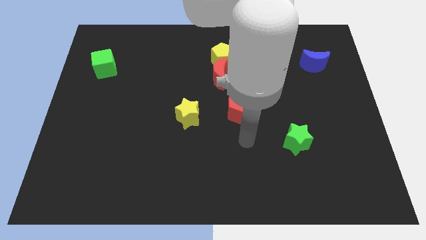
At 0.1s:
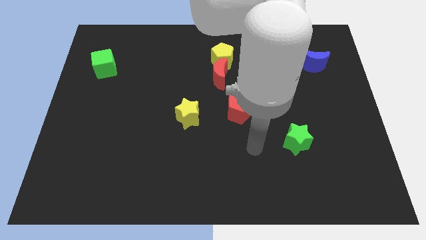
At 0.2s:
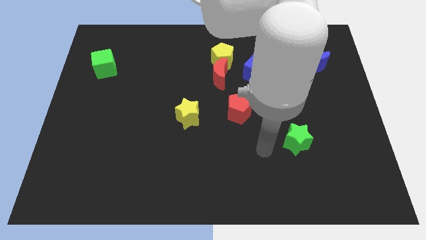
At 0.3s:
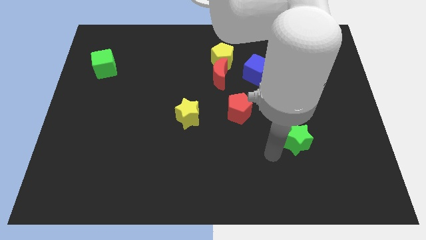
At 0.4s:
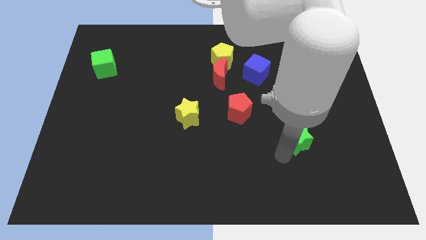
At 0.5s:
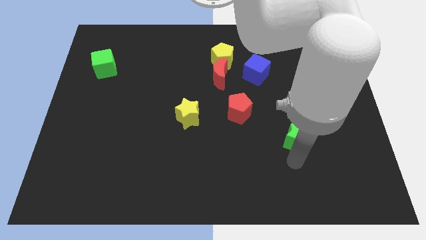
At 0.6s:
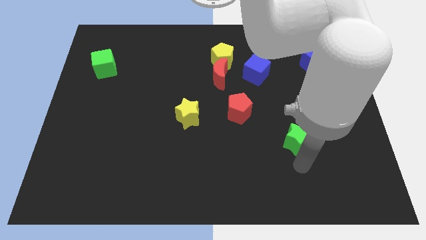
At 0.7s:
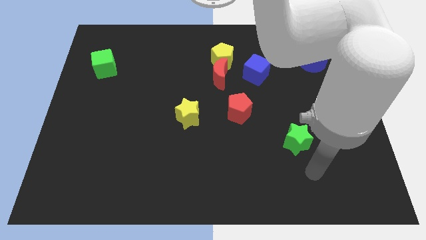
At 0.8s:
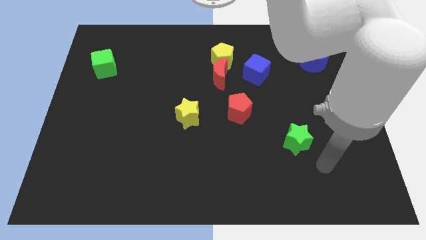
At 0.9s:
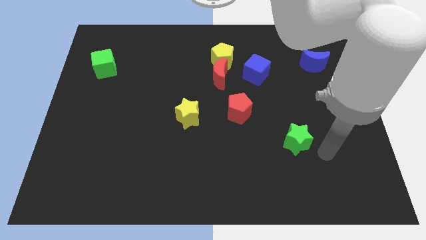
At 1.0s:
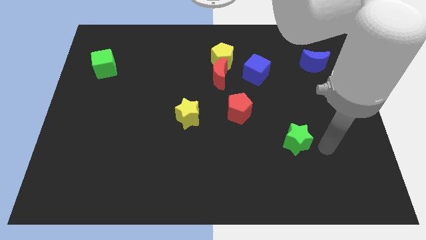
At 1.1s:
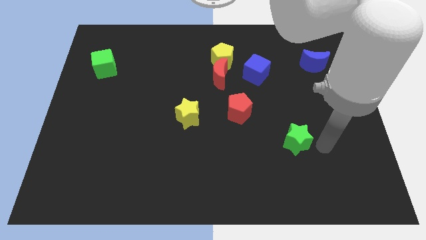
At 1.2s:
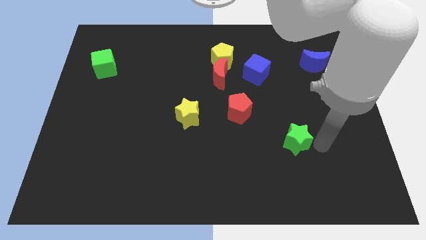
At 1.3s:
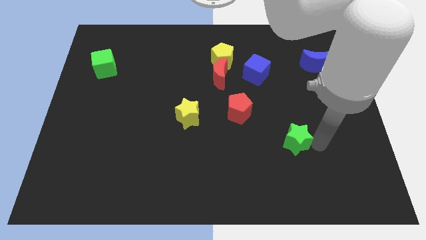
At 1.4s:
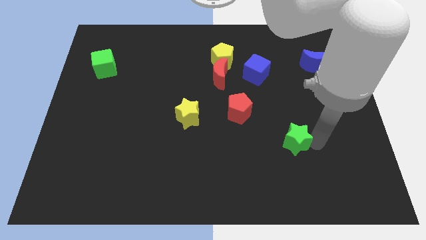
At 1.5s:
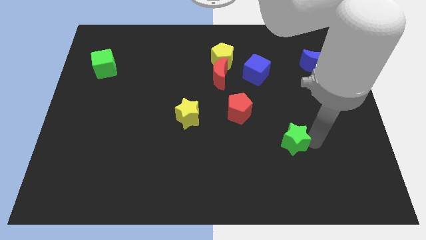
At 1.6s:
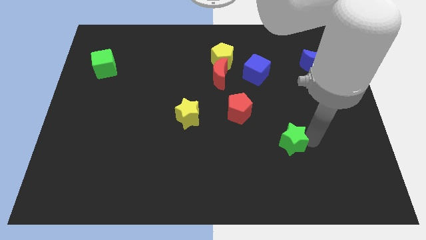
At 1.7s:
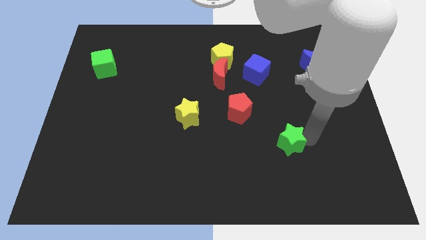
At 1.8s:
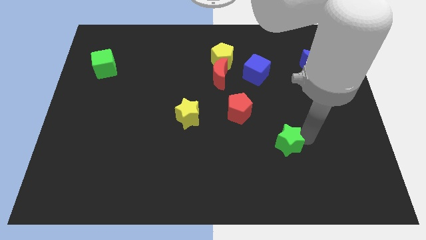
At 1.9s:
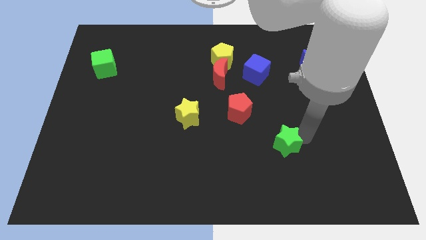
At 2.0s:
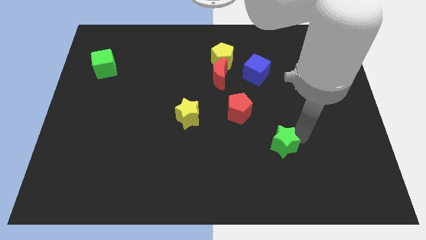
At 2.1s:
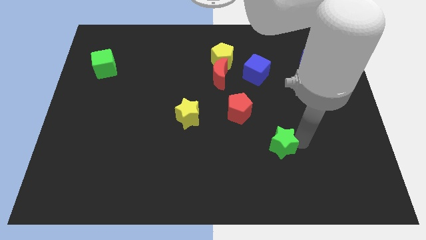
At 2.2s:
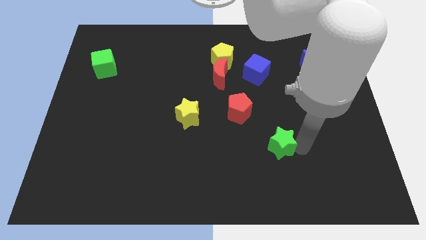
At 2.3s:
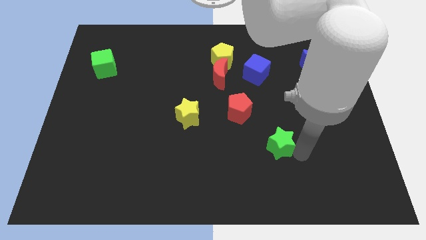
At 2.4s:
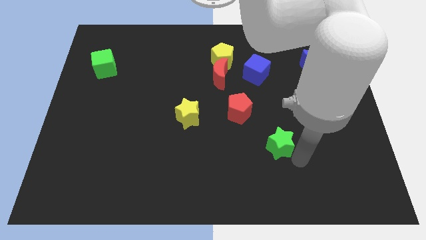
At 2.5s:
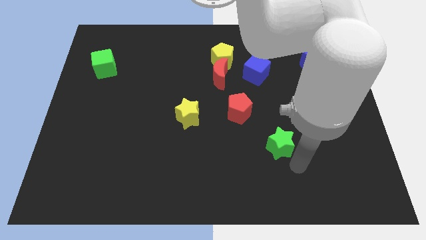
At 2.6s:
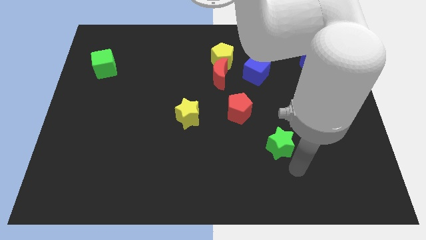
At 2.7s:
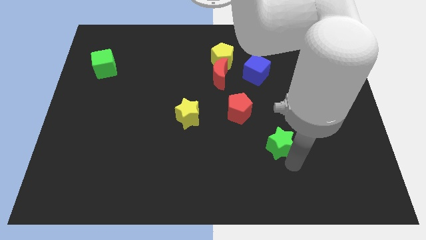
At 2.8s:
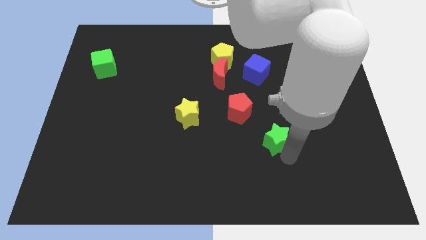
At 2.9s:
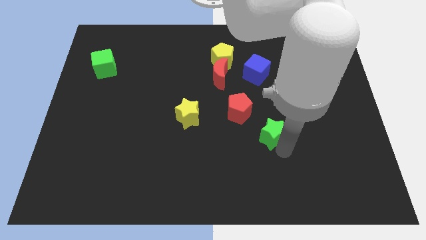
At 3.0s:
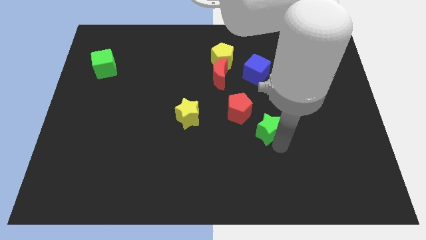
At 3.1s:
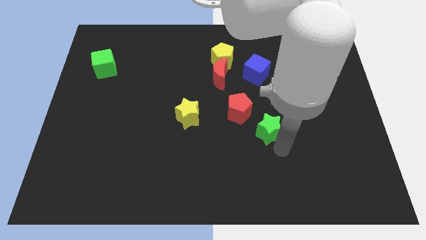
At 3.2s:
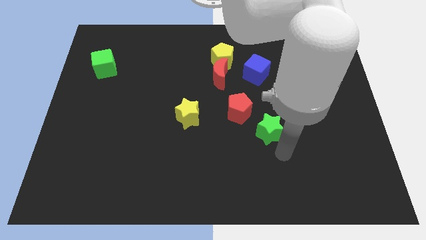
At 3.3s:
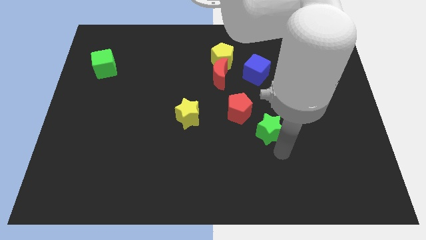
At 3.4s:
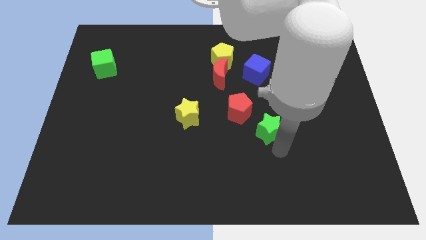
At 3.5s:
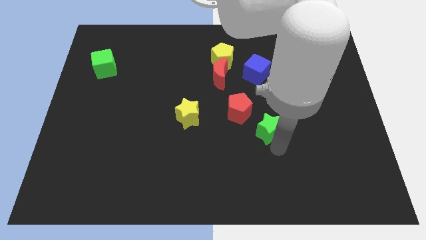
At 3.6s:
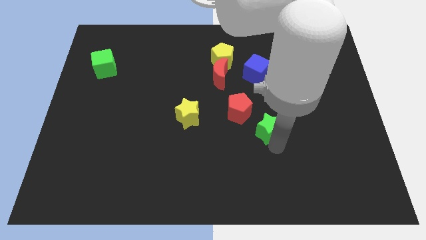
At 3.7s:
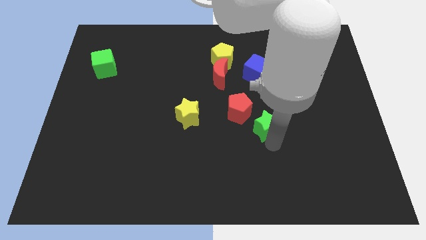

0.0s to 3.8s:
slightly move the green star upwards and to the left diagonally

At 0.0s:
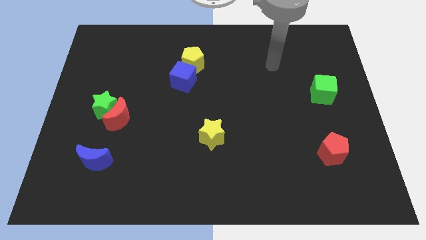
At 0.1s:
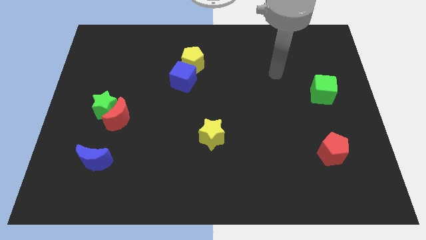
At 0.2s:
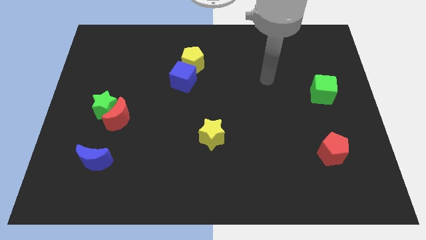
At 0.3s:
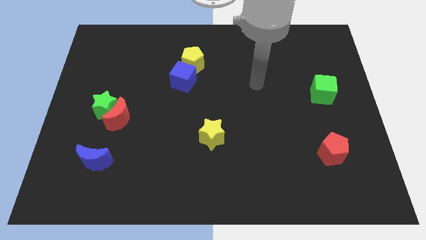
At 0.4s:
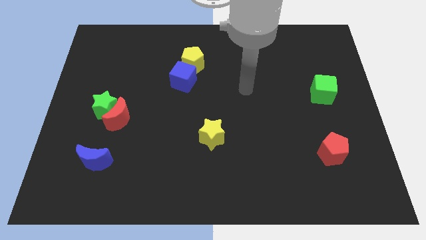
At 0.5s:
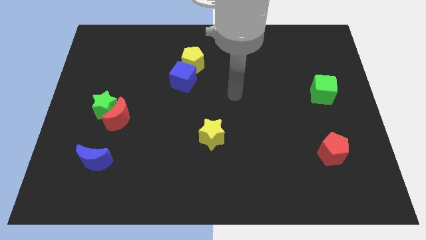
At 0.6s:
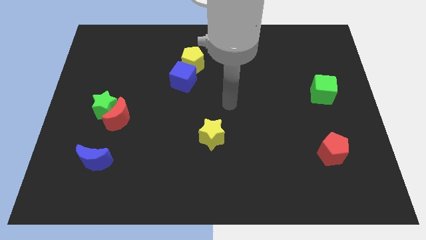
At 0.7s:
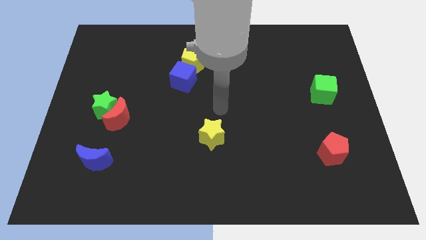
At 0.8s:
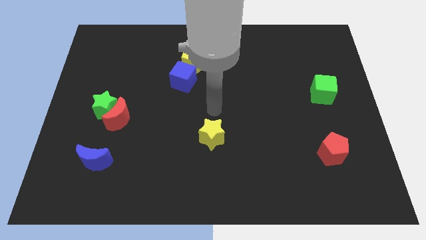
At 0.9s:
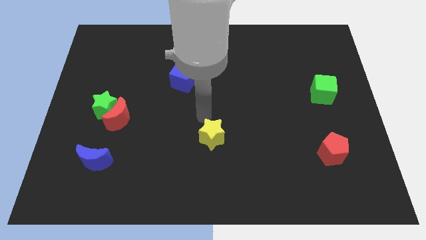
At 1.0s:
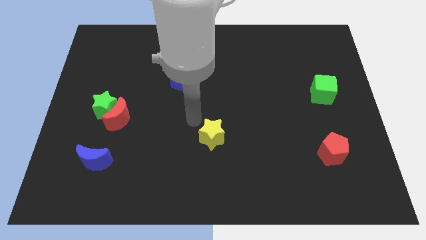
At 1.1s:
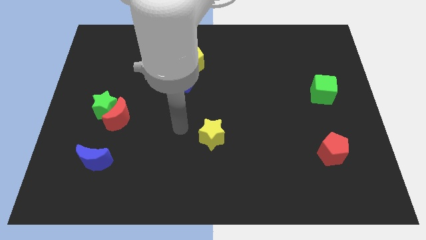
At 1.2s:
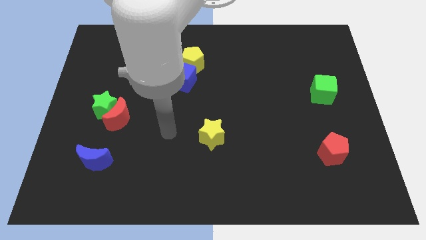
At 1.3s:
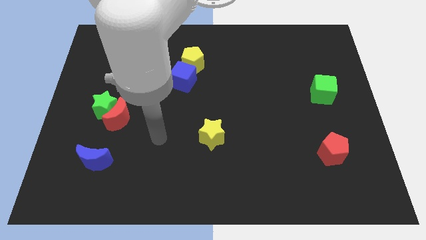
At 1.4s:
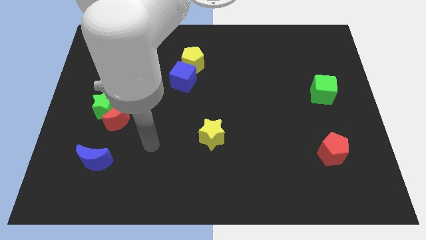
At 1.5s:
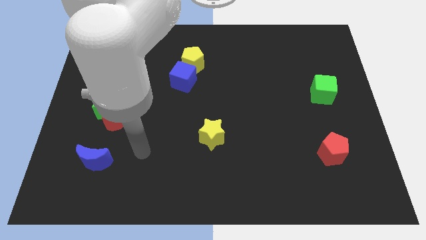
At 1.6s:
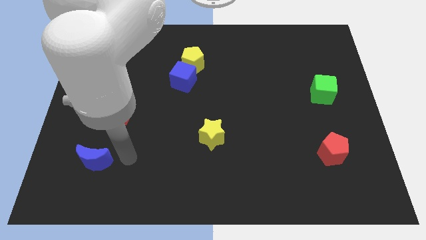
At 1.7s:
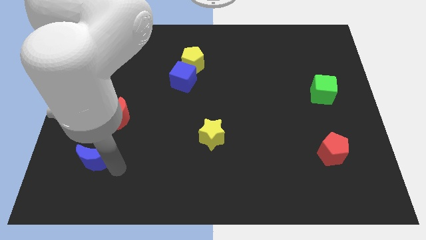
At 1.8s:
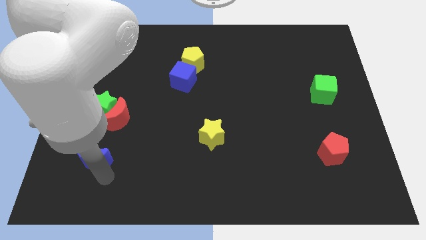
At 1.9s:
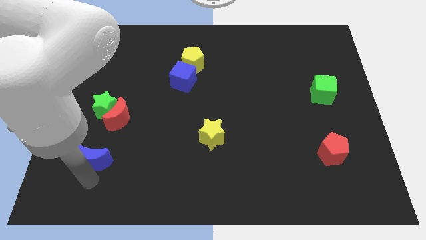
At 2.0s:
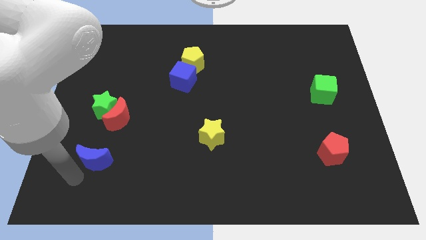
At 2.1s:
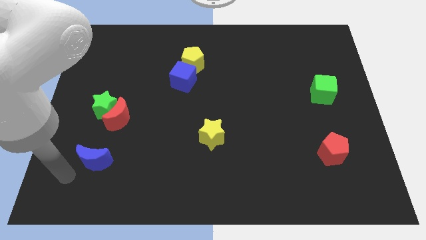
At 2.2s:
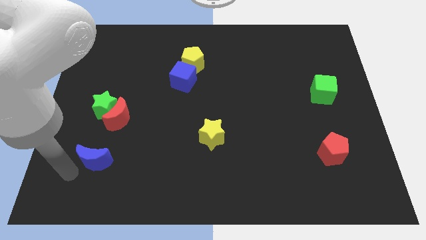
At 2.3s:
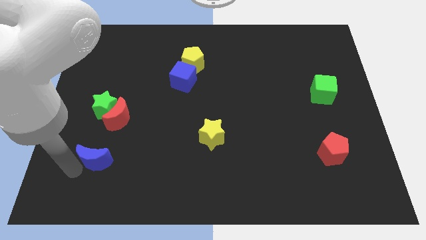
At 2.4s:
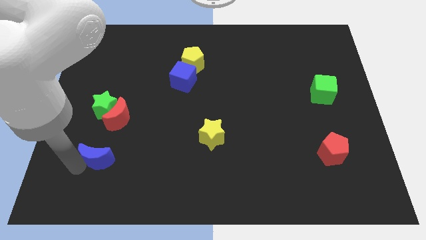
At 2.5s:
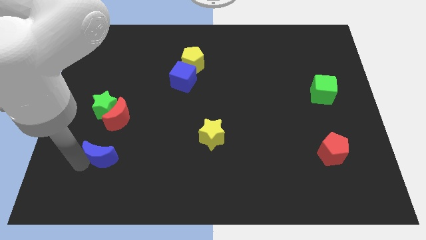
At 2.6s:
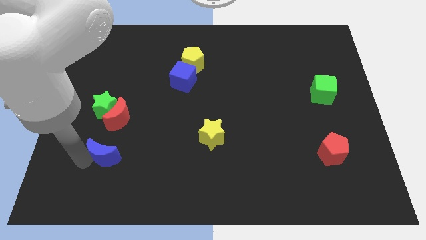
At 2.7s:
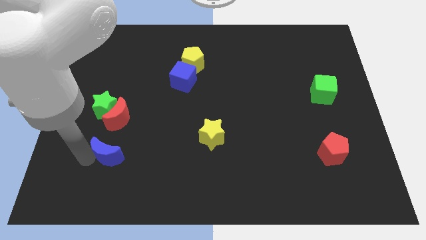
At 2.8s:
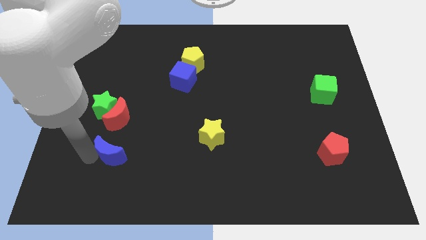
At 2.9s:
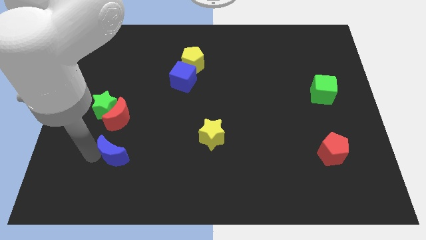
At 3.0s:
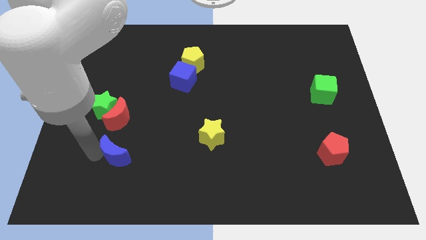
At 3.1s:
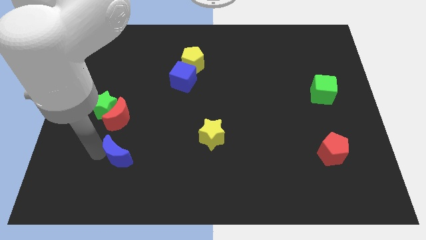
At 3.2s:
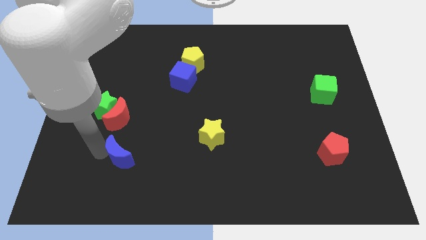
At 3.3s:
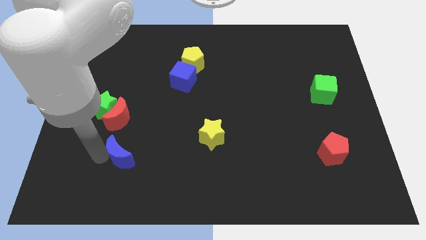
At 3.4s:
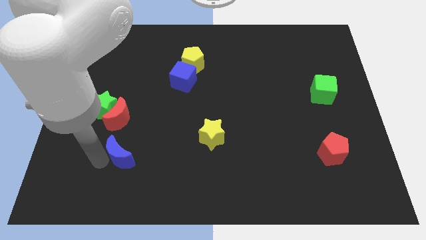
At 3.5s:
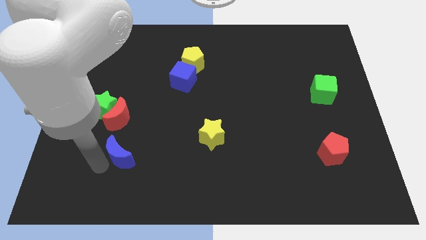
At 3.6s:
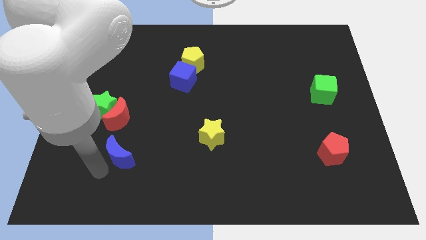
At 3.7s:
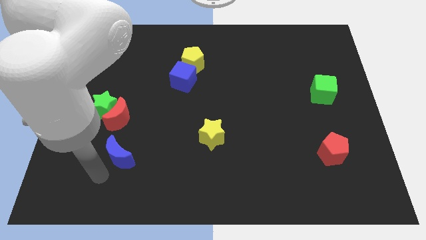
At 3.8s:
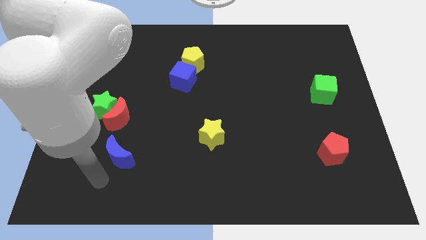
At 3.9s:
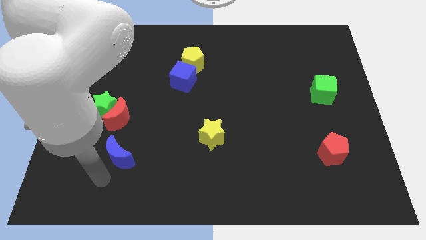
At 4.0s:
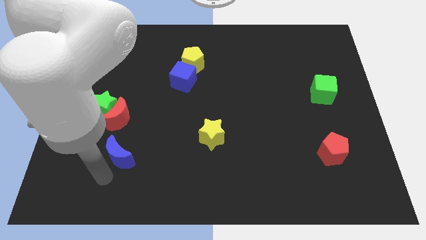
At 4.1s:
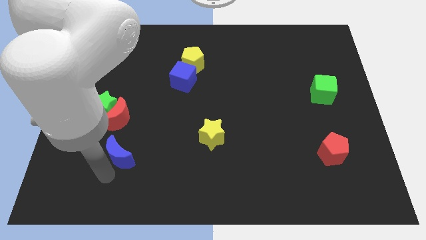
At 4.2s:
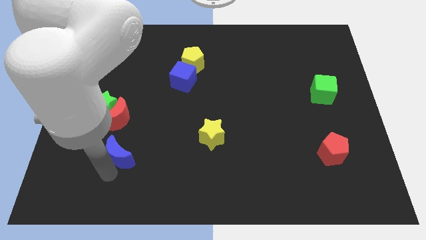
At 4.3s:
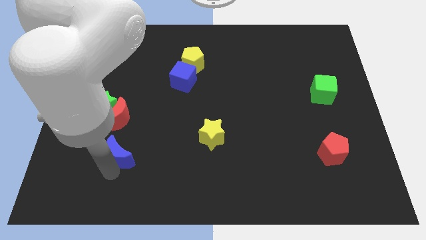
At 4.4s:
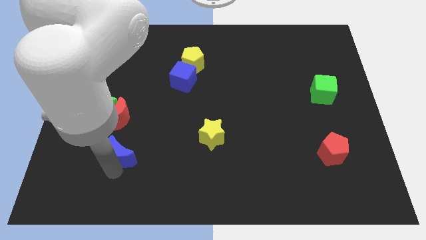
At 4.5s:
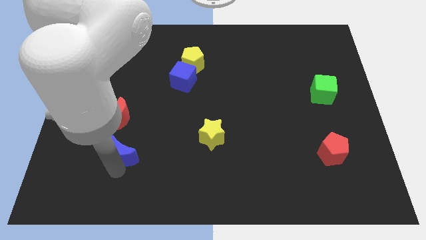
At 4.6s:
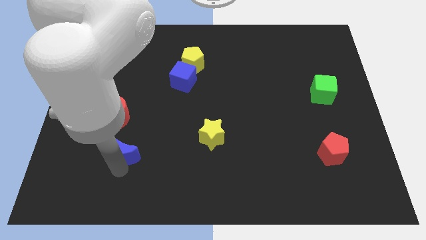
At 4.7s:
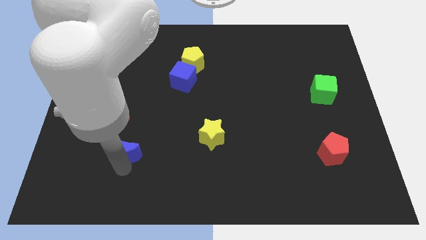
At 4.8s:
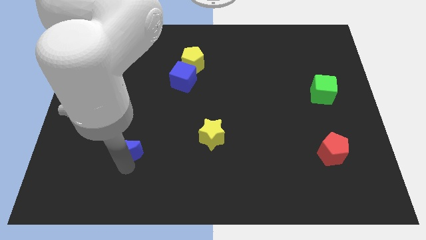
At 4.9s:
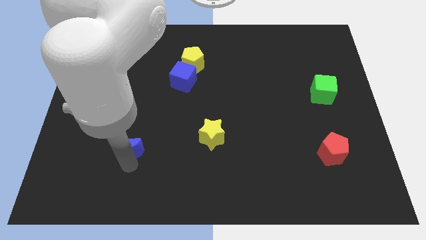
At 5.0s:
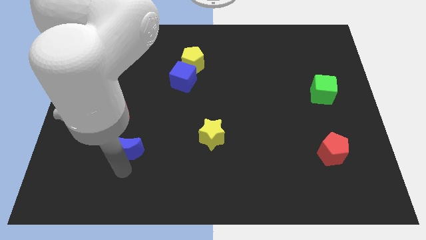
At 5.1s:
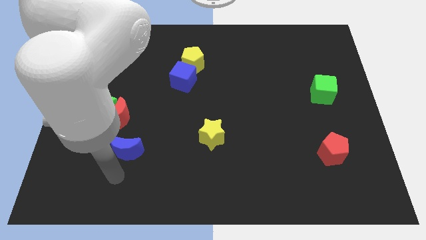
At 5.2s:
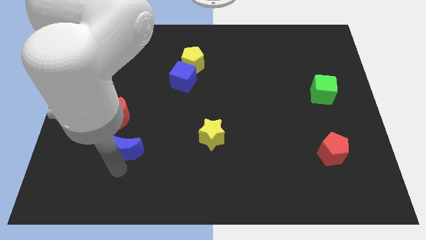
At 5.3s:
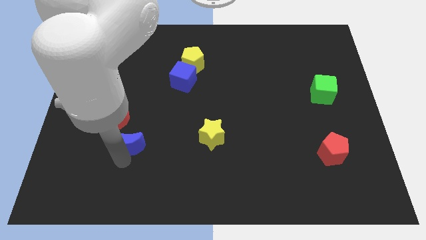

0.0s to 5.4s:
slide the blue moon diagonally up and to the right somewhat
